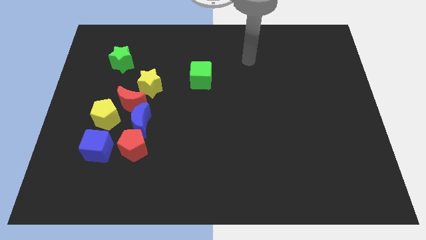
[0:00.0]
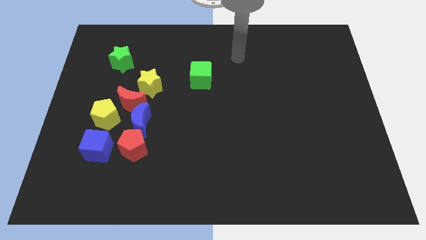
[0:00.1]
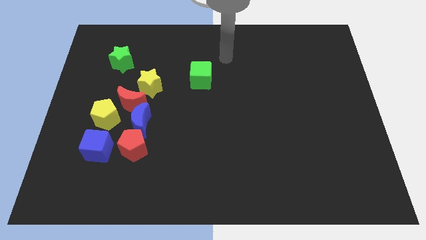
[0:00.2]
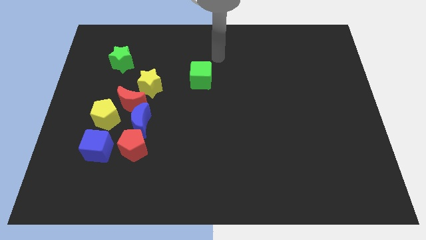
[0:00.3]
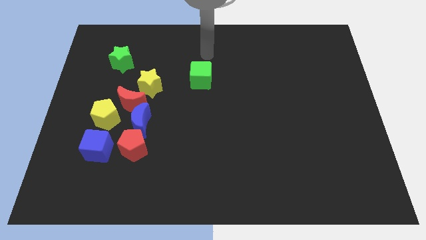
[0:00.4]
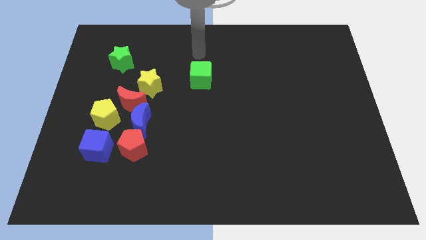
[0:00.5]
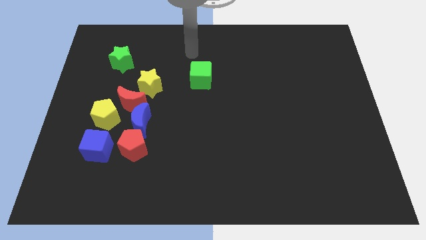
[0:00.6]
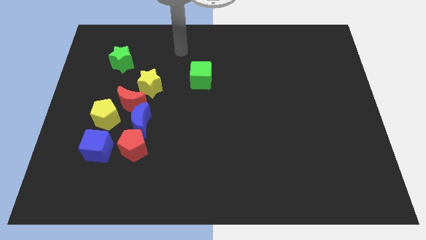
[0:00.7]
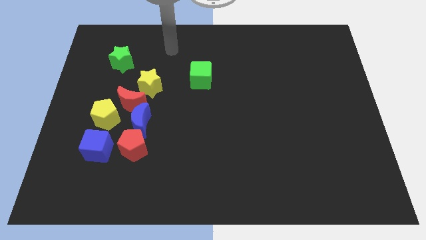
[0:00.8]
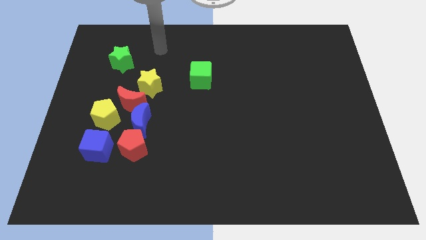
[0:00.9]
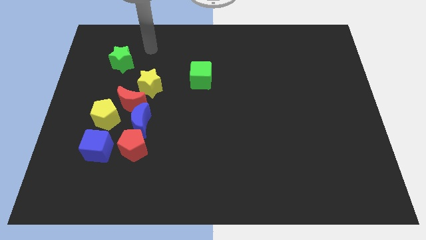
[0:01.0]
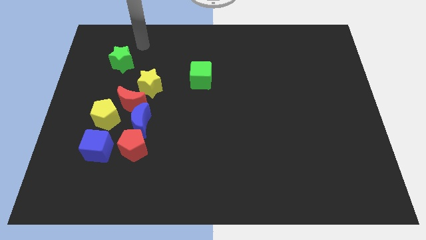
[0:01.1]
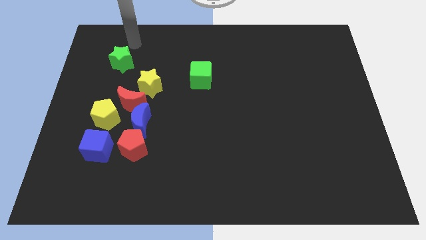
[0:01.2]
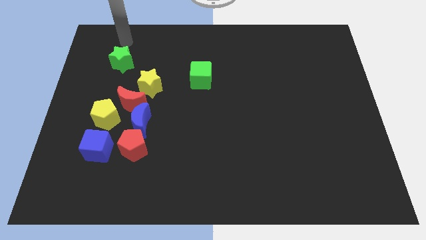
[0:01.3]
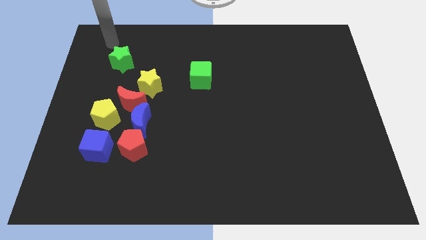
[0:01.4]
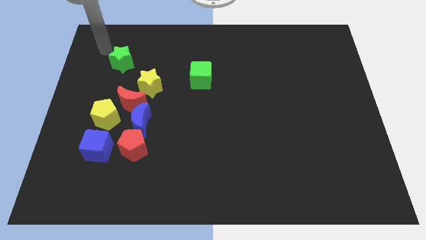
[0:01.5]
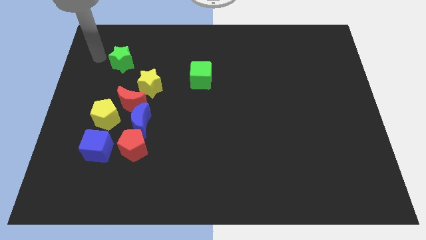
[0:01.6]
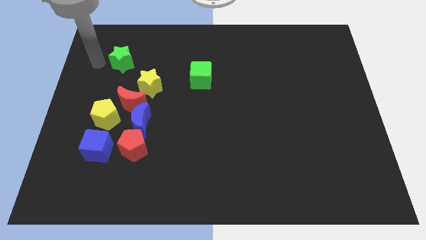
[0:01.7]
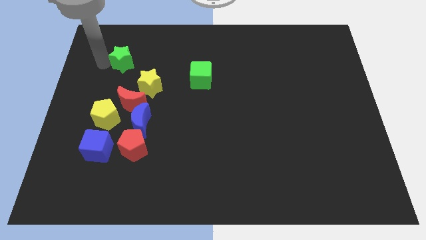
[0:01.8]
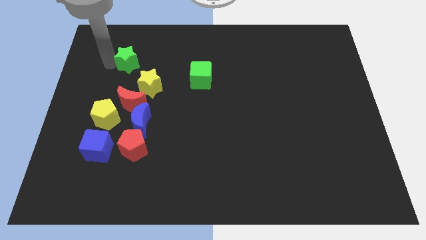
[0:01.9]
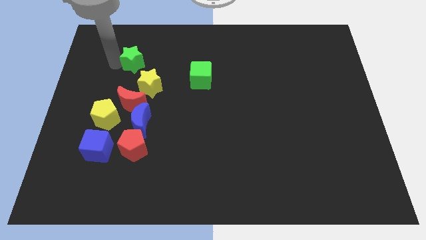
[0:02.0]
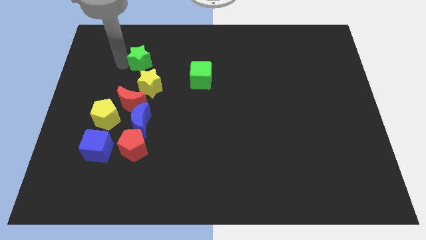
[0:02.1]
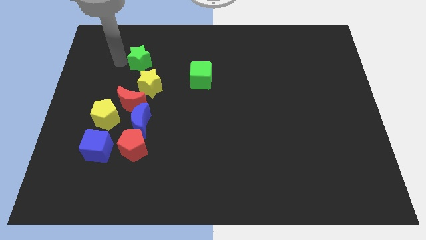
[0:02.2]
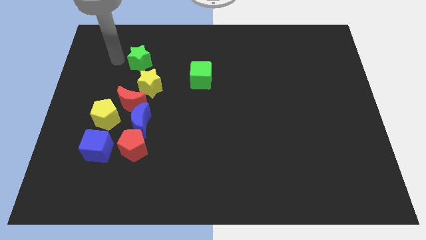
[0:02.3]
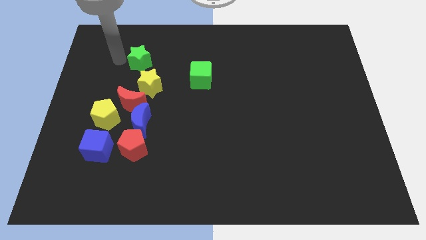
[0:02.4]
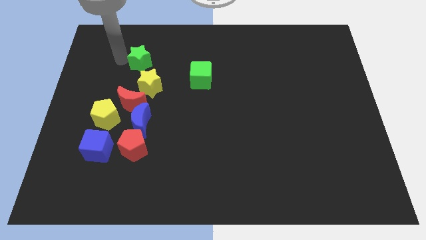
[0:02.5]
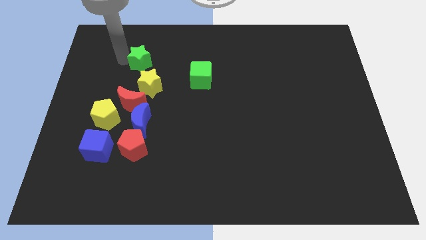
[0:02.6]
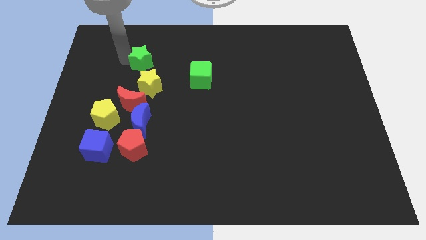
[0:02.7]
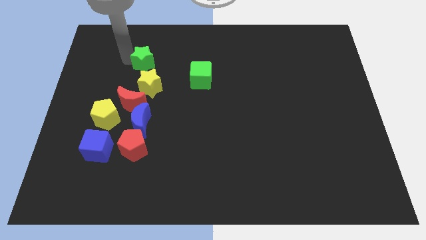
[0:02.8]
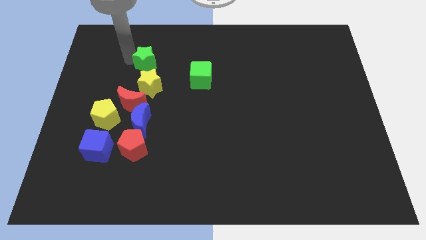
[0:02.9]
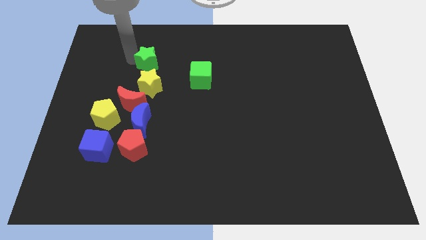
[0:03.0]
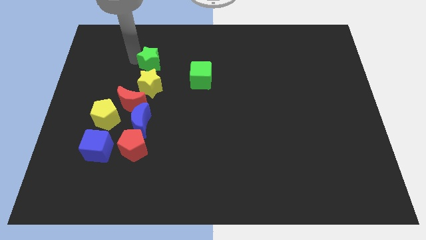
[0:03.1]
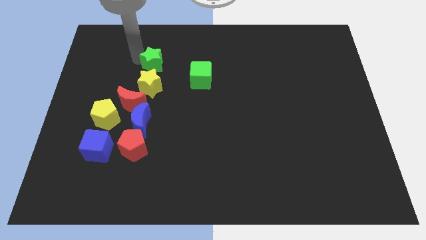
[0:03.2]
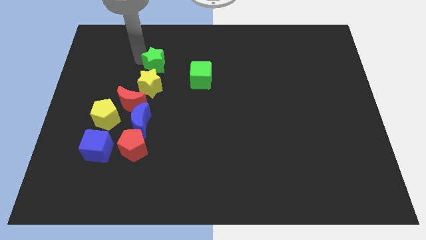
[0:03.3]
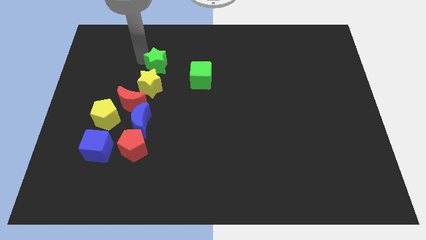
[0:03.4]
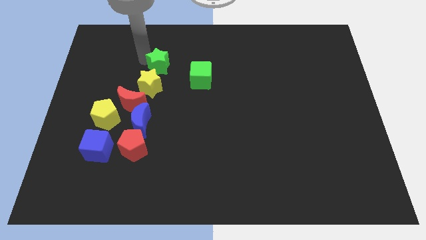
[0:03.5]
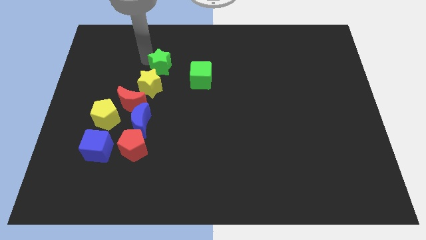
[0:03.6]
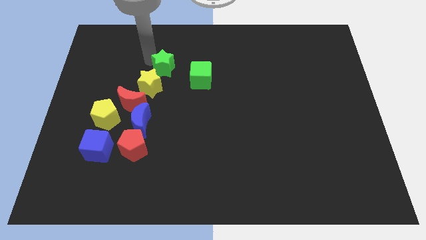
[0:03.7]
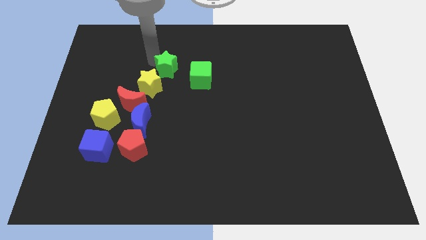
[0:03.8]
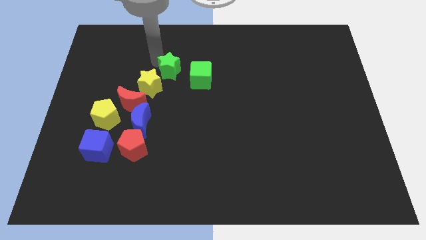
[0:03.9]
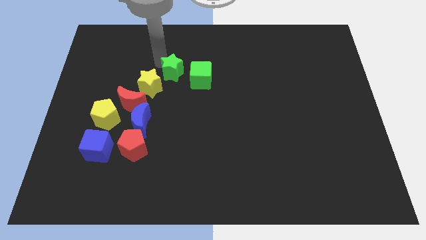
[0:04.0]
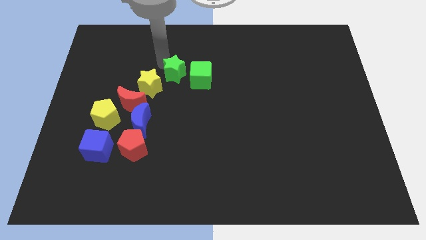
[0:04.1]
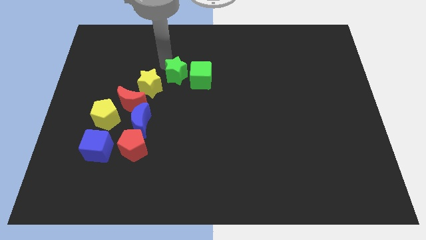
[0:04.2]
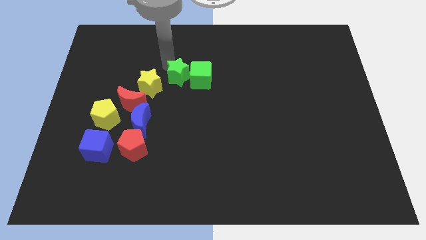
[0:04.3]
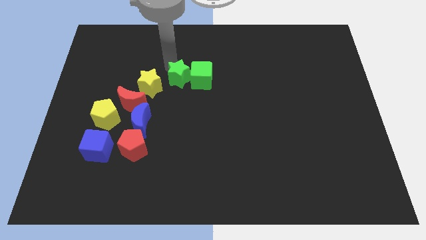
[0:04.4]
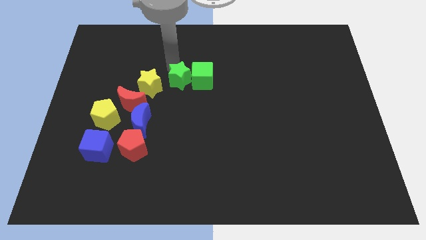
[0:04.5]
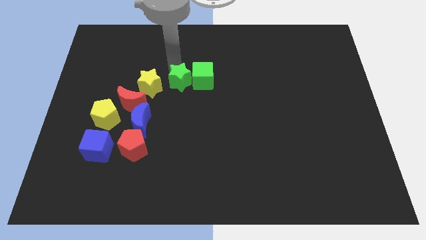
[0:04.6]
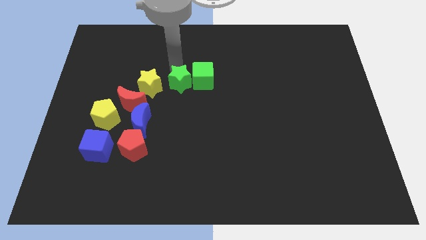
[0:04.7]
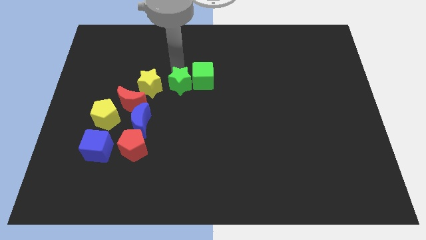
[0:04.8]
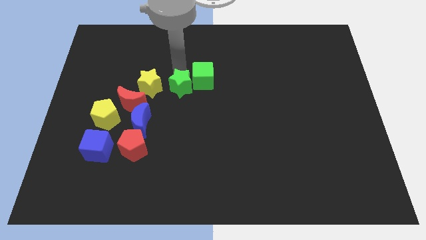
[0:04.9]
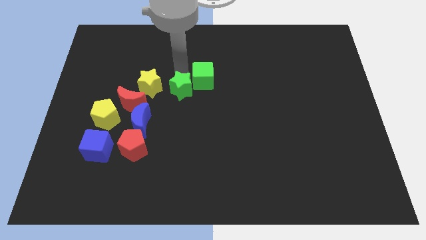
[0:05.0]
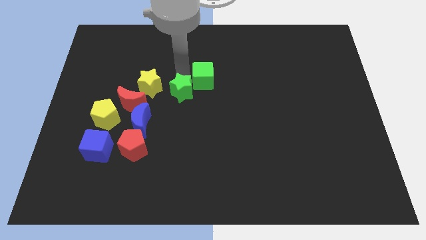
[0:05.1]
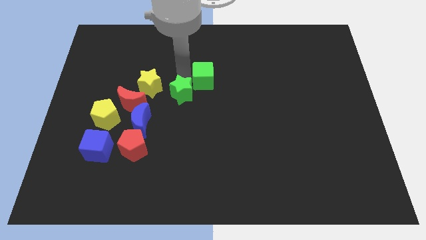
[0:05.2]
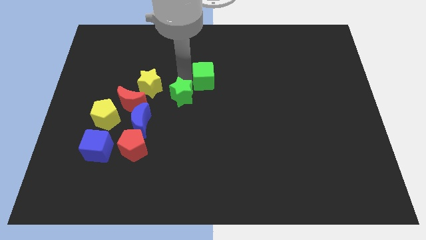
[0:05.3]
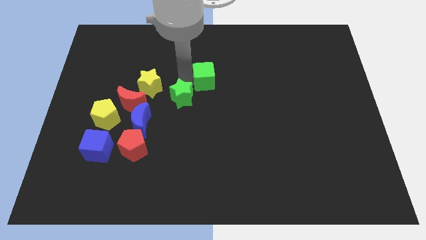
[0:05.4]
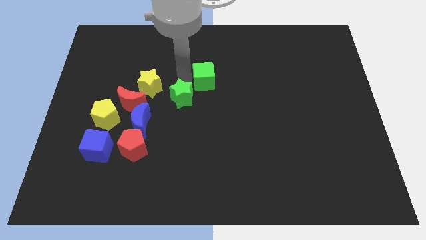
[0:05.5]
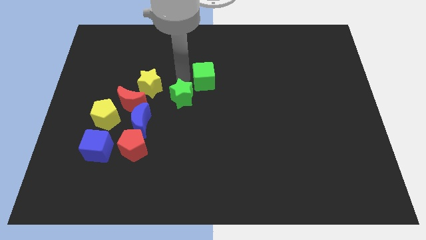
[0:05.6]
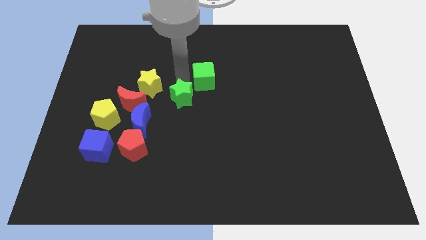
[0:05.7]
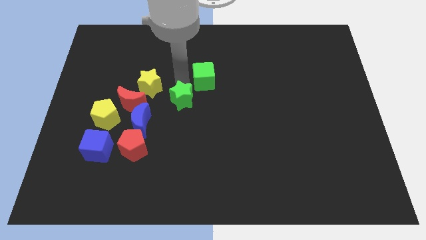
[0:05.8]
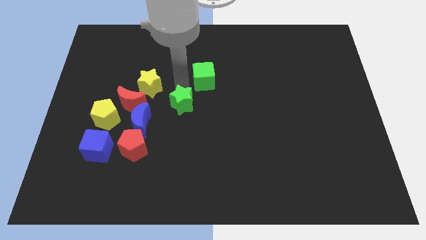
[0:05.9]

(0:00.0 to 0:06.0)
slide the green star downwards and then to the right

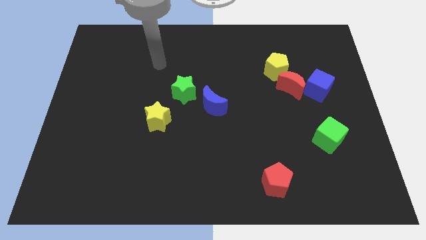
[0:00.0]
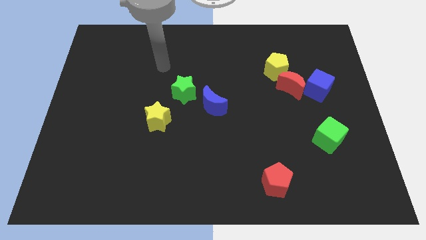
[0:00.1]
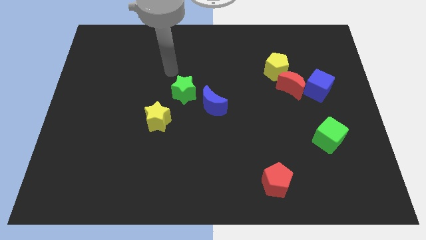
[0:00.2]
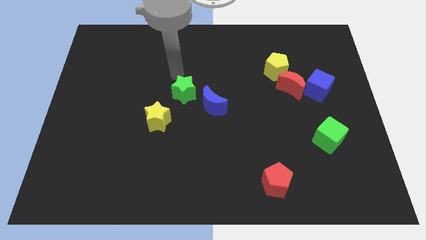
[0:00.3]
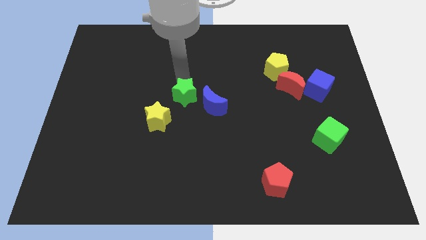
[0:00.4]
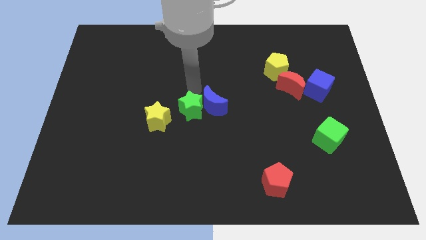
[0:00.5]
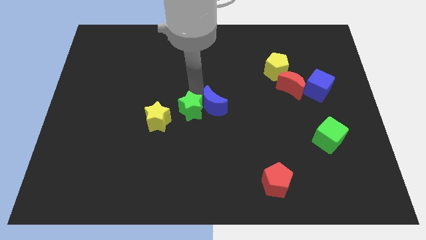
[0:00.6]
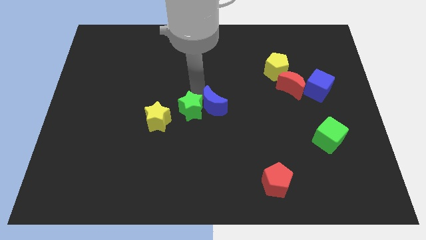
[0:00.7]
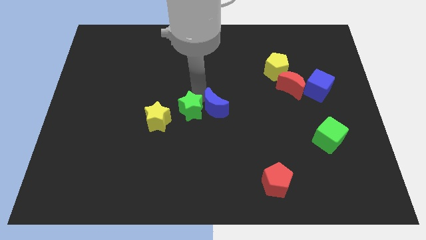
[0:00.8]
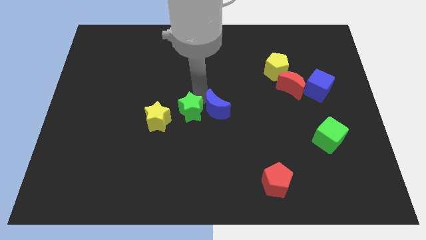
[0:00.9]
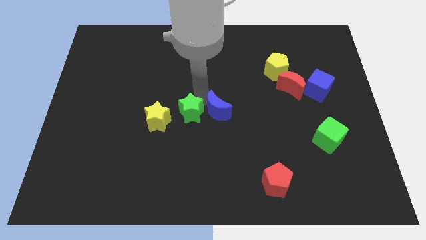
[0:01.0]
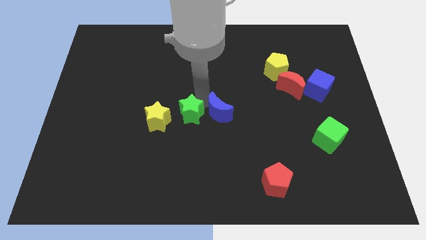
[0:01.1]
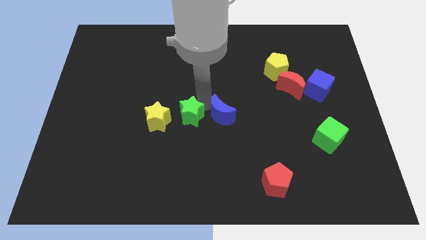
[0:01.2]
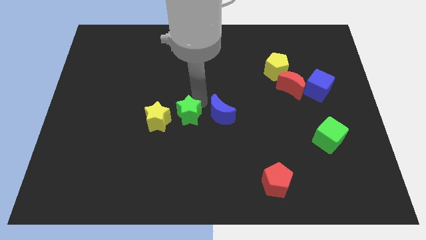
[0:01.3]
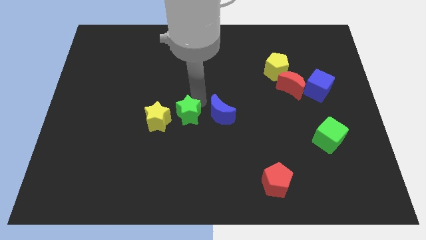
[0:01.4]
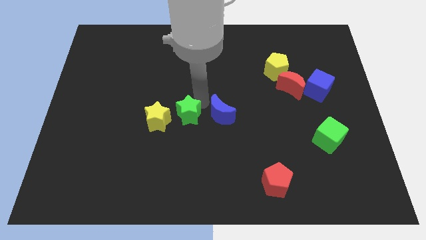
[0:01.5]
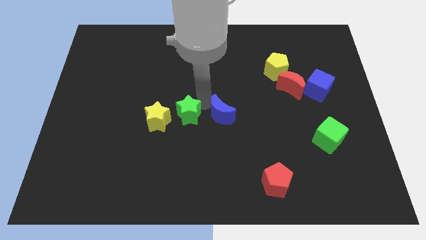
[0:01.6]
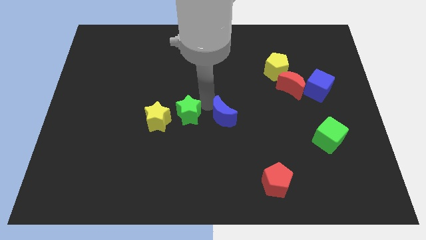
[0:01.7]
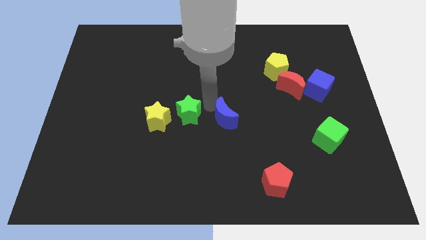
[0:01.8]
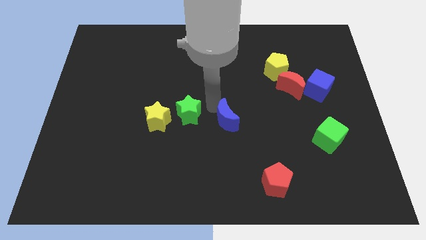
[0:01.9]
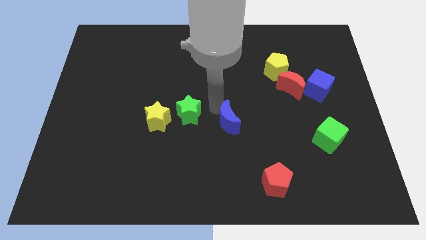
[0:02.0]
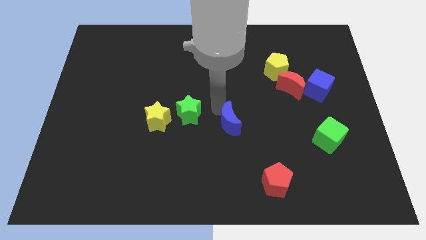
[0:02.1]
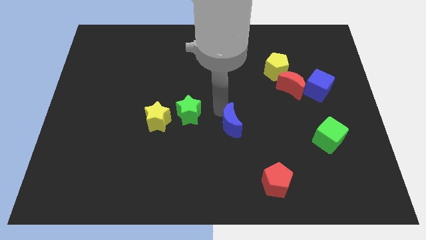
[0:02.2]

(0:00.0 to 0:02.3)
move the blue moon somewhat diagonally downwards and right
